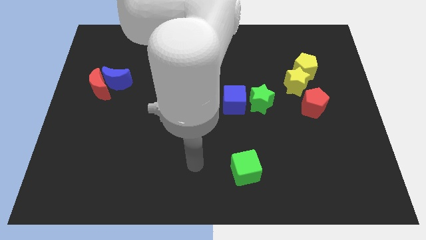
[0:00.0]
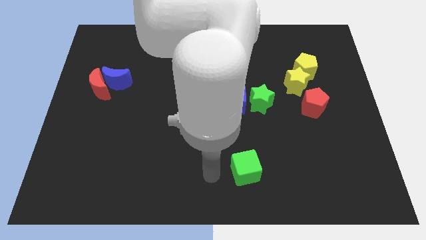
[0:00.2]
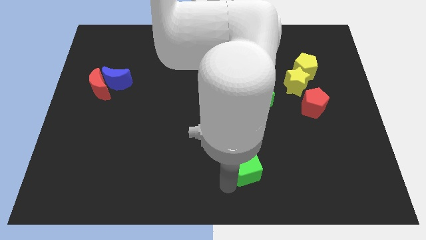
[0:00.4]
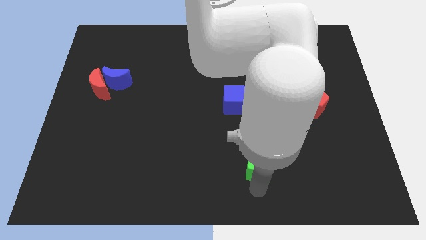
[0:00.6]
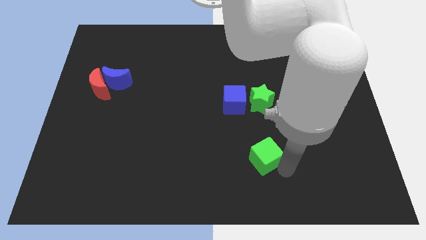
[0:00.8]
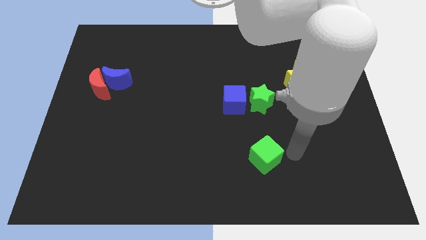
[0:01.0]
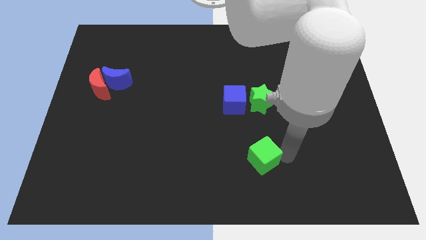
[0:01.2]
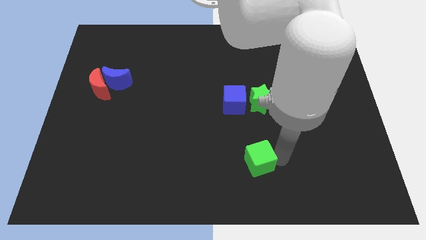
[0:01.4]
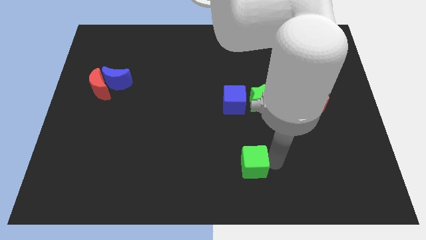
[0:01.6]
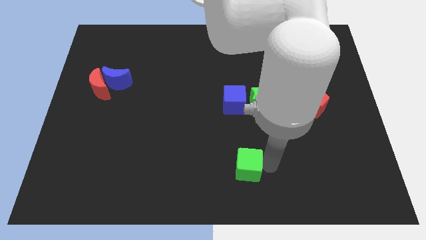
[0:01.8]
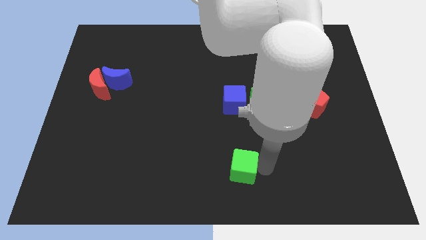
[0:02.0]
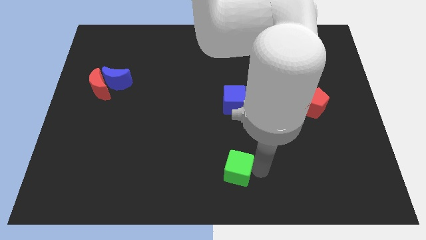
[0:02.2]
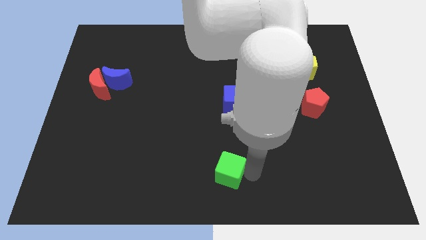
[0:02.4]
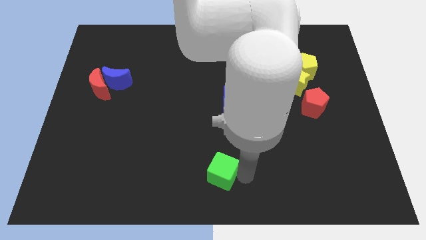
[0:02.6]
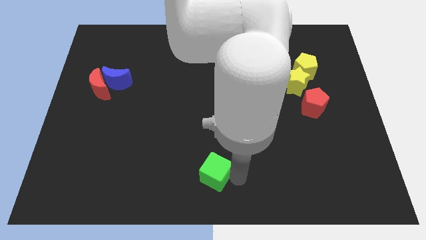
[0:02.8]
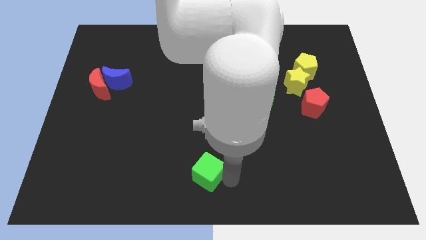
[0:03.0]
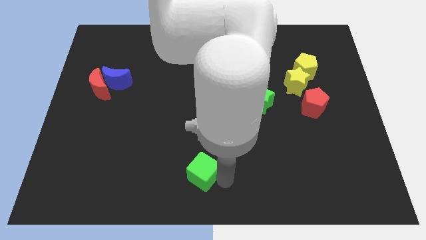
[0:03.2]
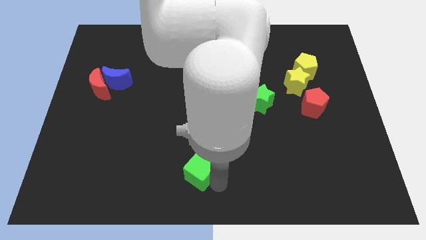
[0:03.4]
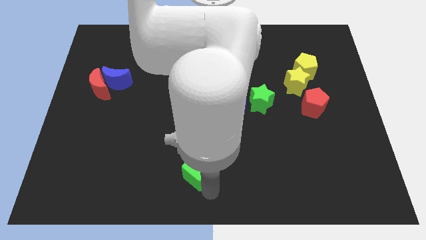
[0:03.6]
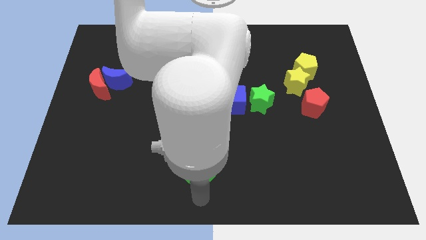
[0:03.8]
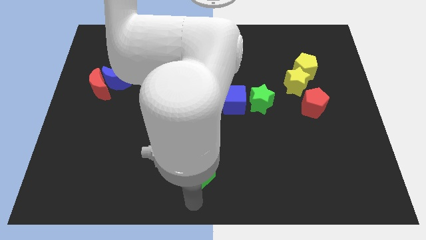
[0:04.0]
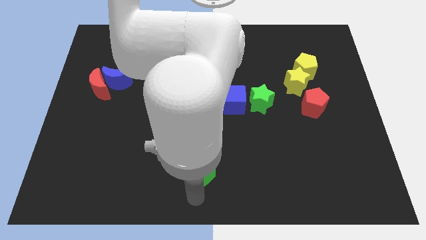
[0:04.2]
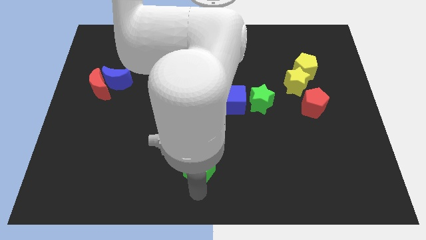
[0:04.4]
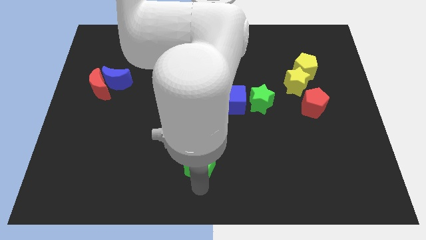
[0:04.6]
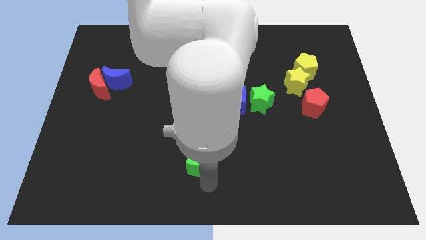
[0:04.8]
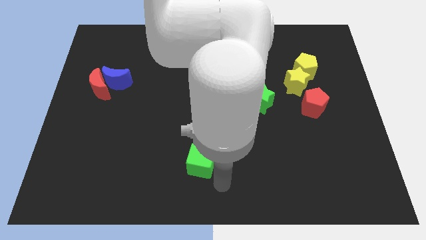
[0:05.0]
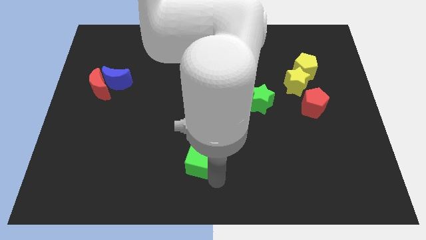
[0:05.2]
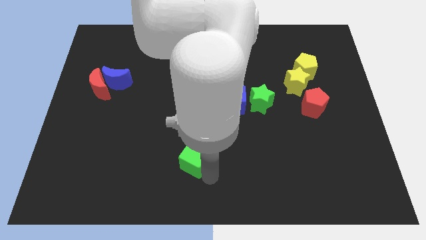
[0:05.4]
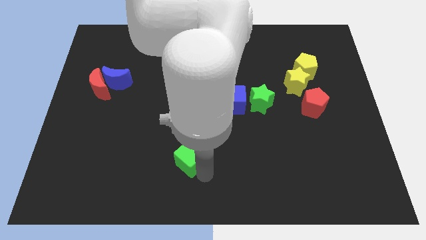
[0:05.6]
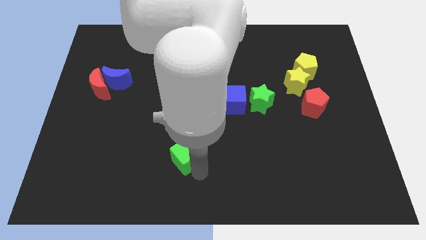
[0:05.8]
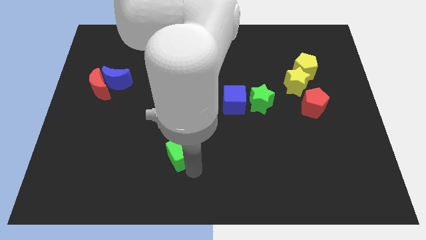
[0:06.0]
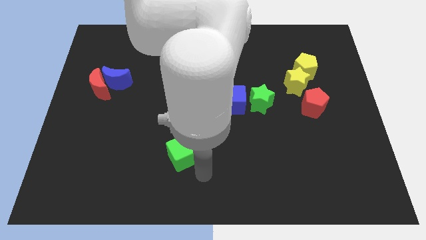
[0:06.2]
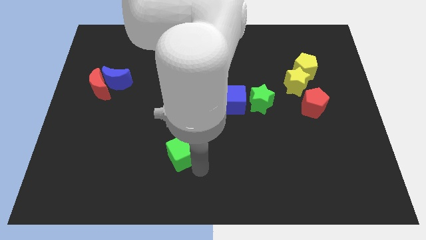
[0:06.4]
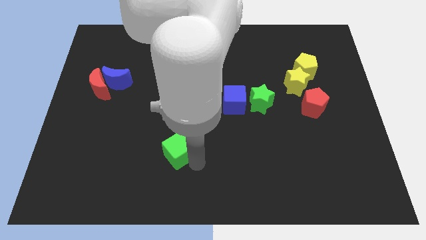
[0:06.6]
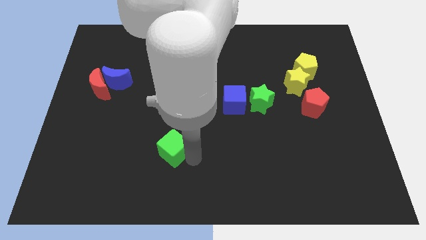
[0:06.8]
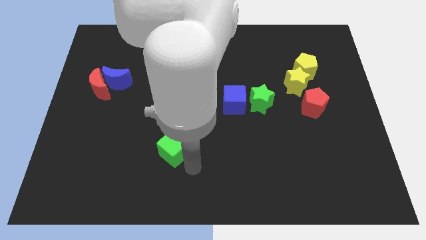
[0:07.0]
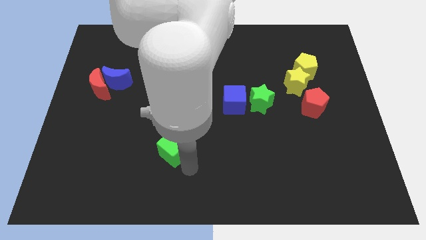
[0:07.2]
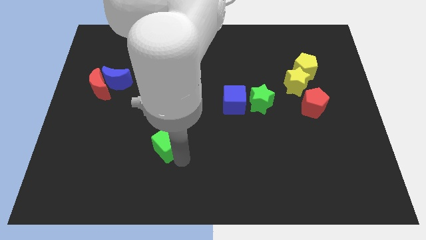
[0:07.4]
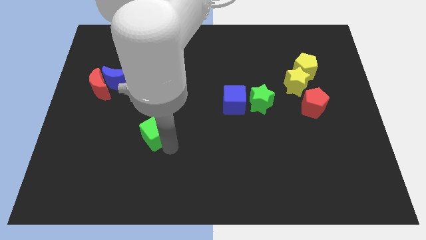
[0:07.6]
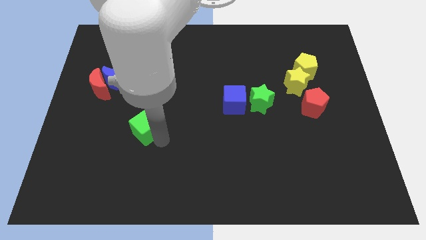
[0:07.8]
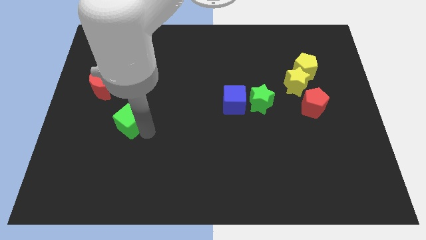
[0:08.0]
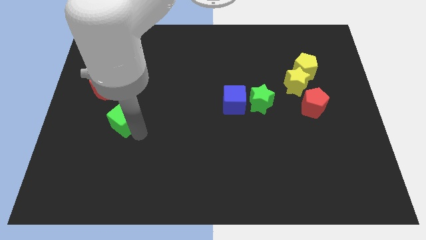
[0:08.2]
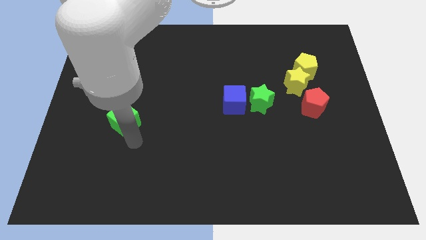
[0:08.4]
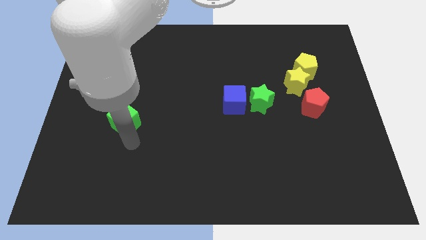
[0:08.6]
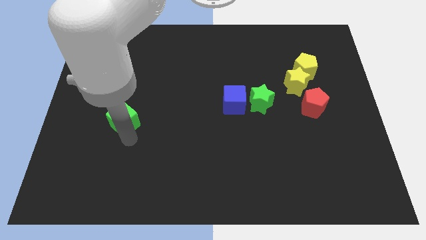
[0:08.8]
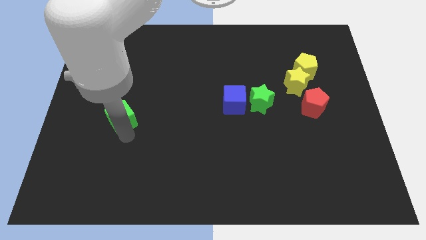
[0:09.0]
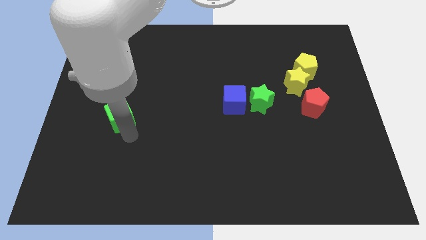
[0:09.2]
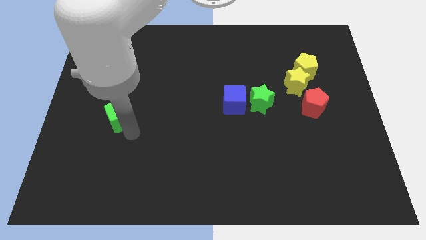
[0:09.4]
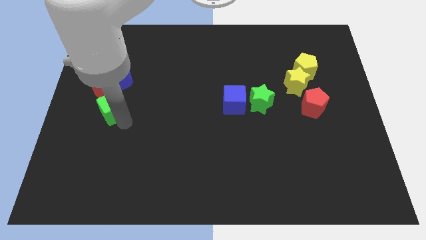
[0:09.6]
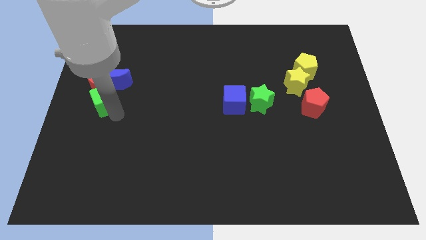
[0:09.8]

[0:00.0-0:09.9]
slide the green cube next to the red moon

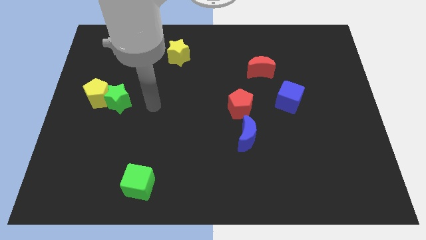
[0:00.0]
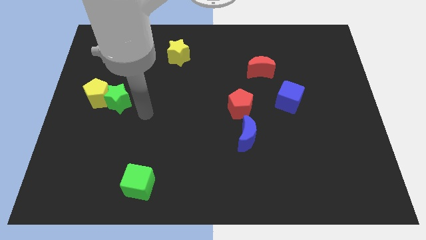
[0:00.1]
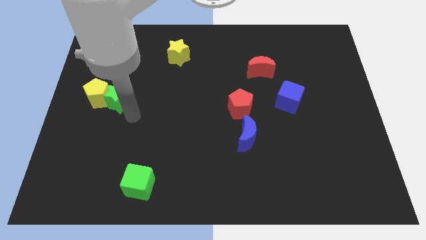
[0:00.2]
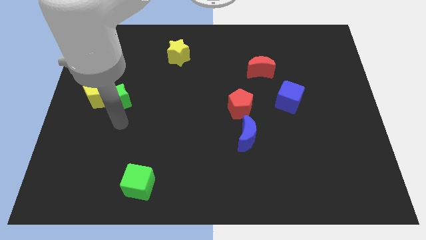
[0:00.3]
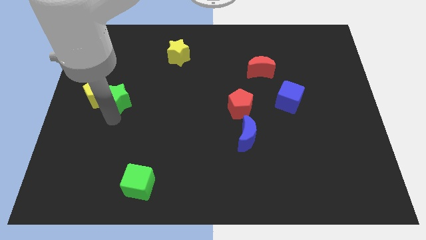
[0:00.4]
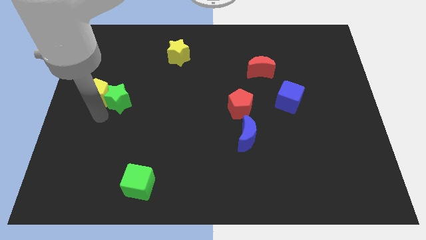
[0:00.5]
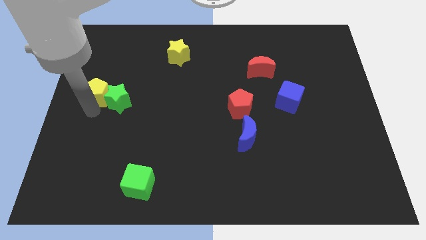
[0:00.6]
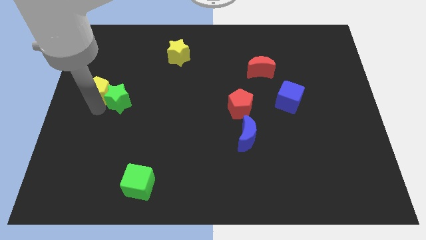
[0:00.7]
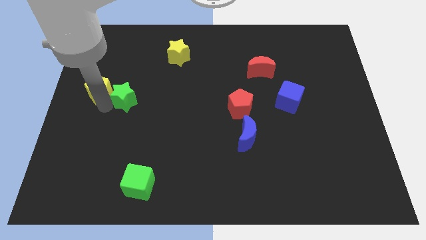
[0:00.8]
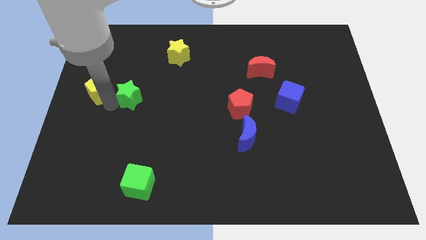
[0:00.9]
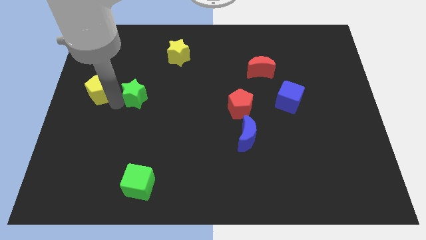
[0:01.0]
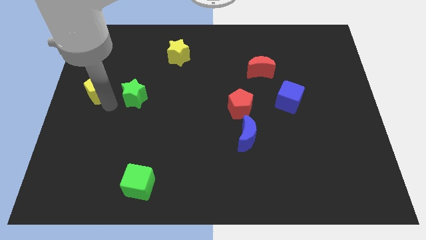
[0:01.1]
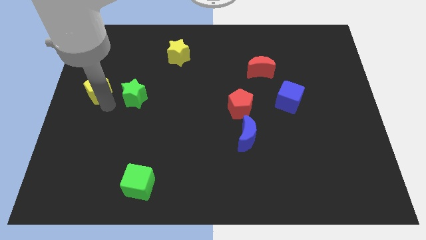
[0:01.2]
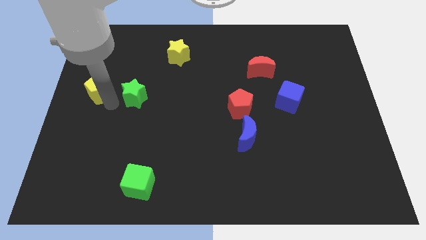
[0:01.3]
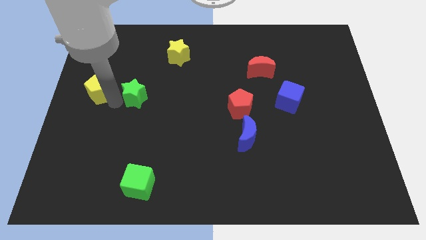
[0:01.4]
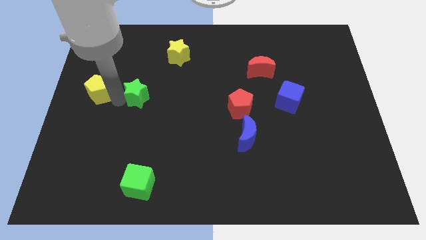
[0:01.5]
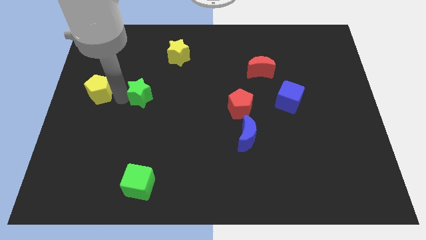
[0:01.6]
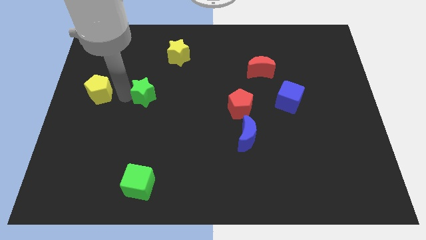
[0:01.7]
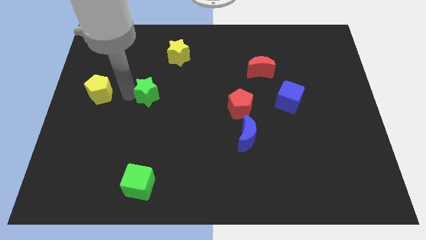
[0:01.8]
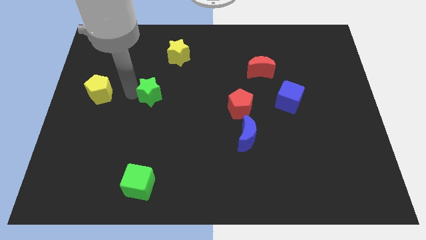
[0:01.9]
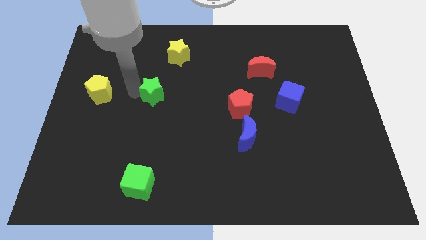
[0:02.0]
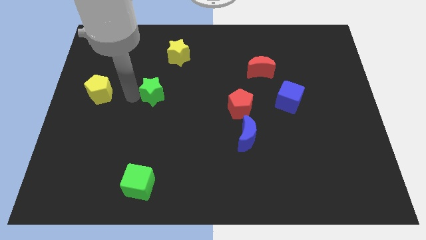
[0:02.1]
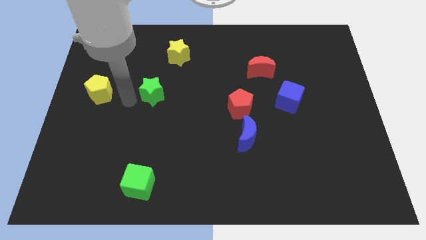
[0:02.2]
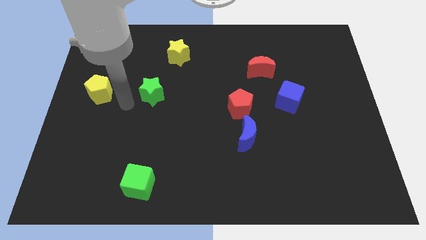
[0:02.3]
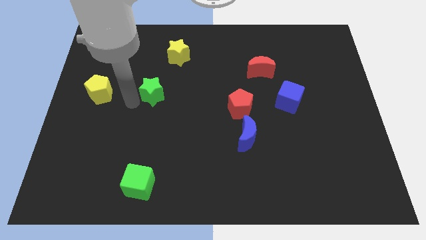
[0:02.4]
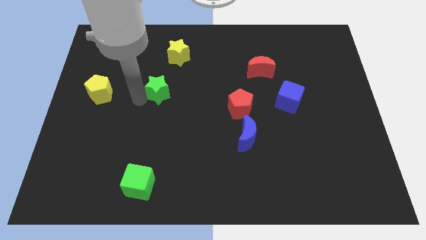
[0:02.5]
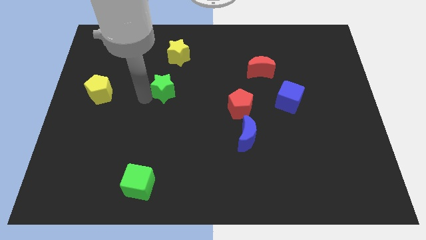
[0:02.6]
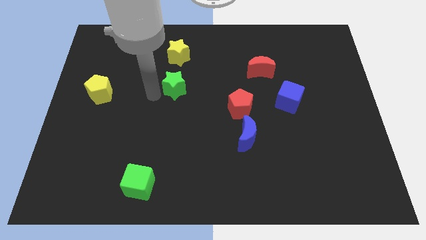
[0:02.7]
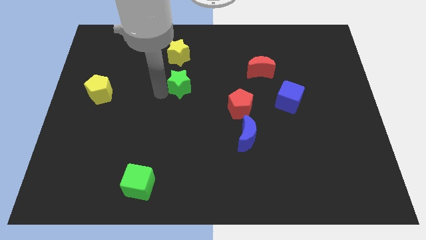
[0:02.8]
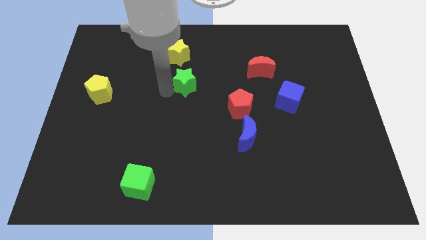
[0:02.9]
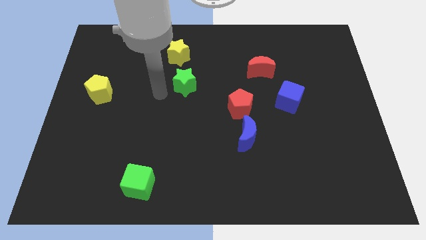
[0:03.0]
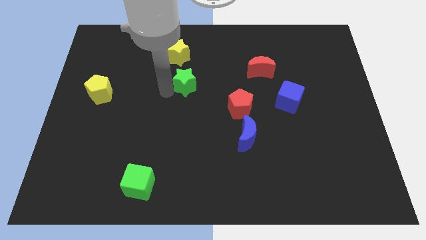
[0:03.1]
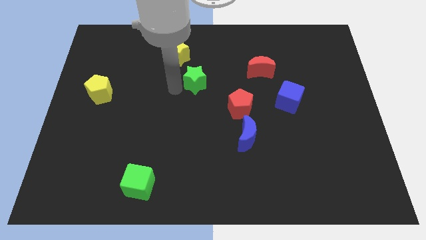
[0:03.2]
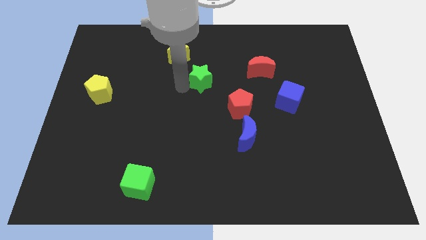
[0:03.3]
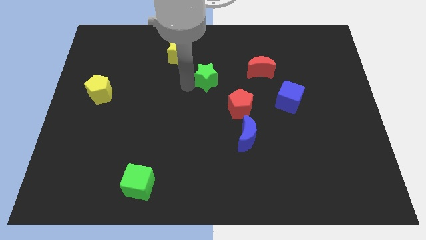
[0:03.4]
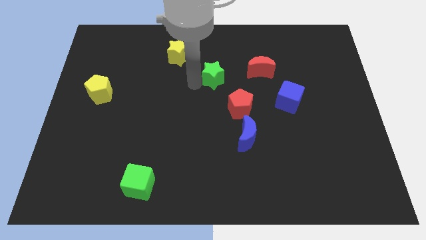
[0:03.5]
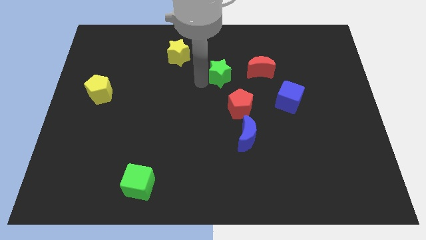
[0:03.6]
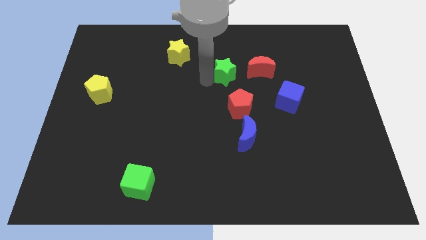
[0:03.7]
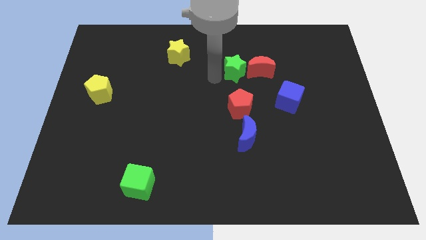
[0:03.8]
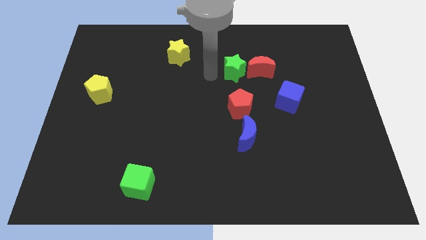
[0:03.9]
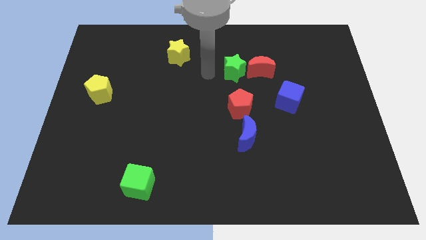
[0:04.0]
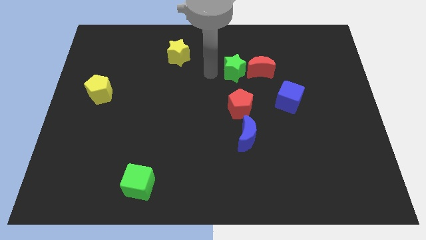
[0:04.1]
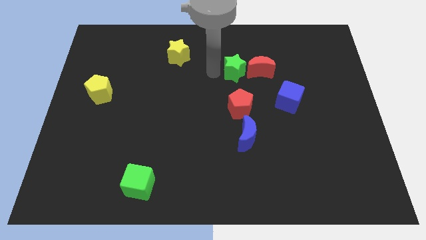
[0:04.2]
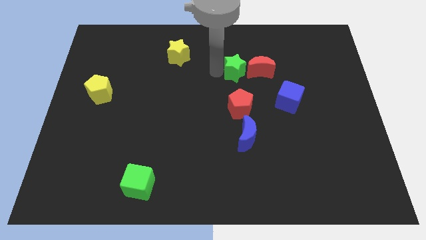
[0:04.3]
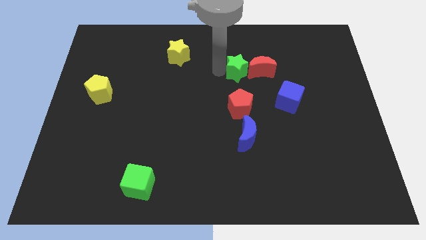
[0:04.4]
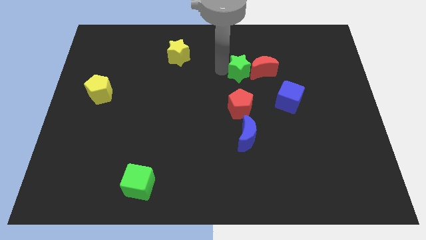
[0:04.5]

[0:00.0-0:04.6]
put the green star close to the red moon
